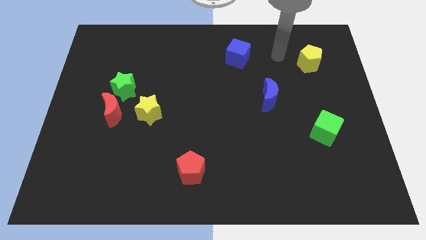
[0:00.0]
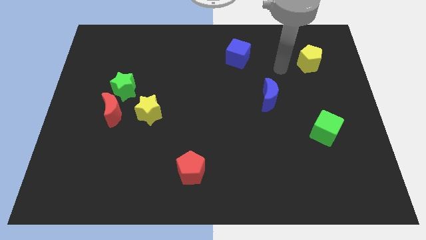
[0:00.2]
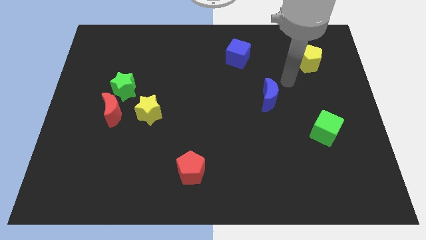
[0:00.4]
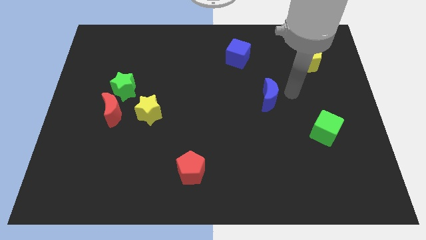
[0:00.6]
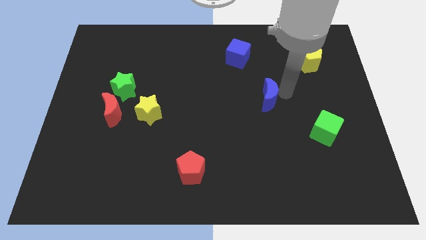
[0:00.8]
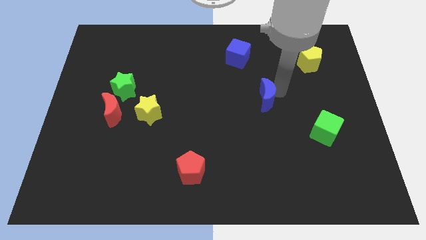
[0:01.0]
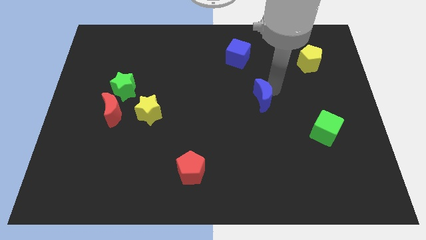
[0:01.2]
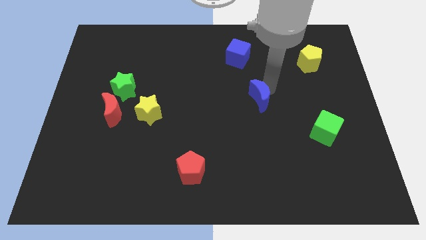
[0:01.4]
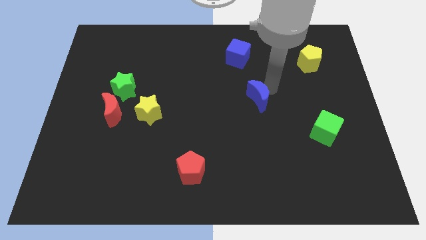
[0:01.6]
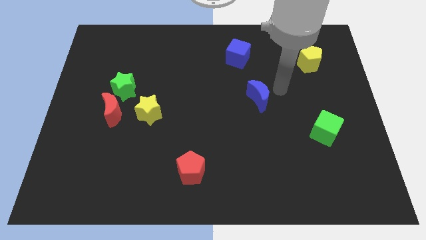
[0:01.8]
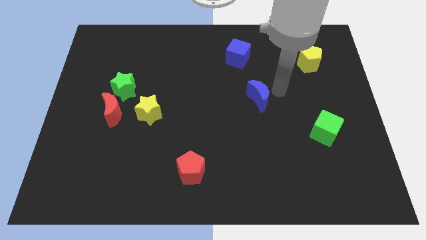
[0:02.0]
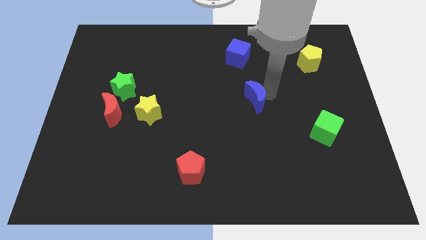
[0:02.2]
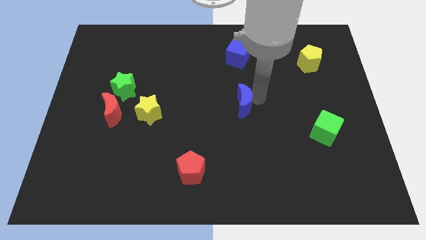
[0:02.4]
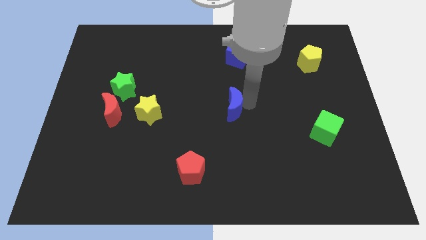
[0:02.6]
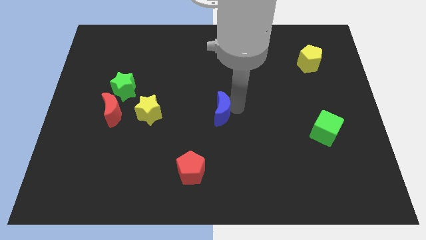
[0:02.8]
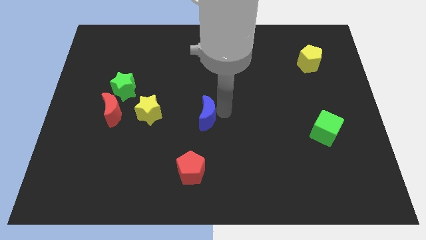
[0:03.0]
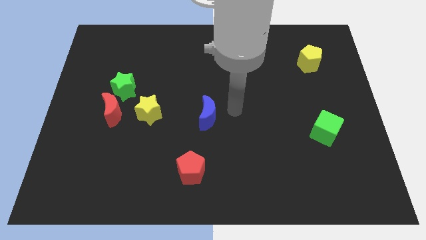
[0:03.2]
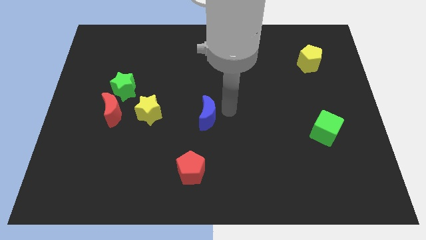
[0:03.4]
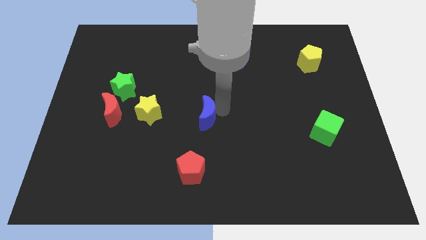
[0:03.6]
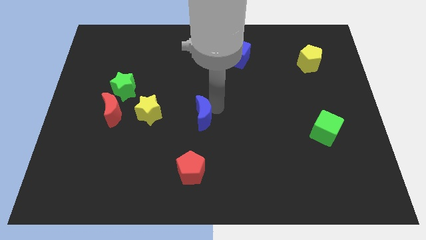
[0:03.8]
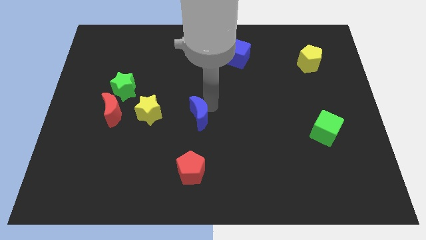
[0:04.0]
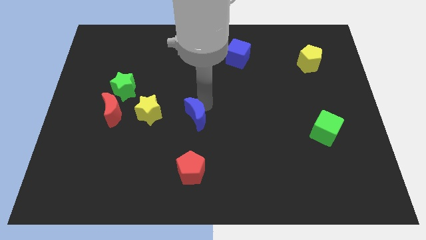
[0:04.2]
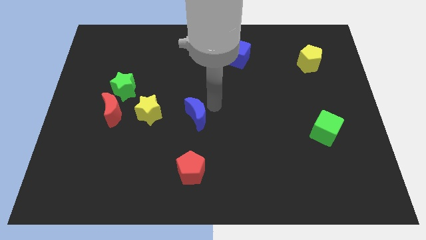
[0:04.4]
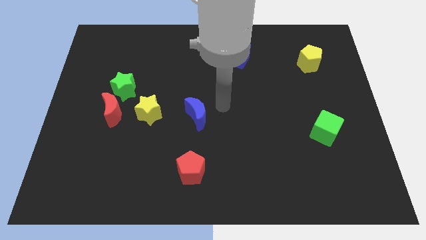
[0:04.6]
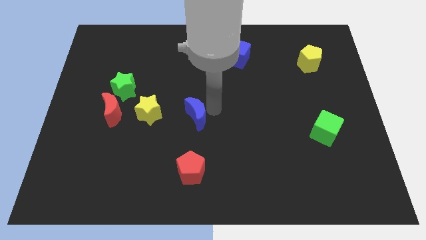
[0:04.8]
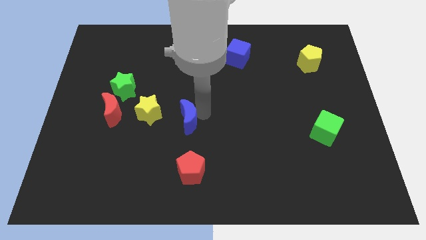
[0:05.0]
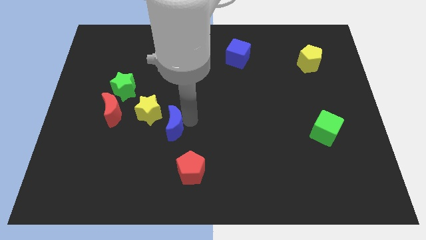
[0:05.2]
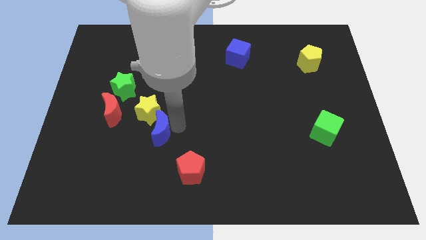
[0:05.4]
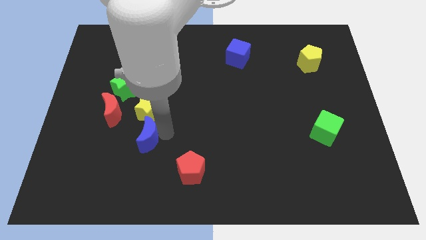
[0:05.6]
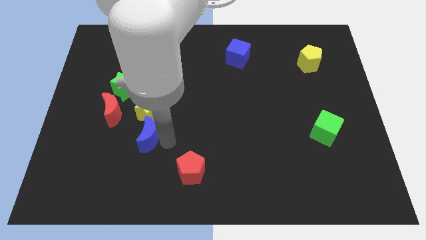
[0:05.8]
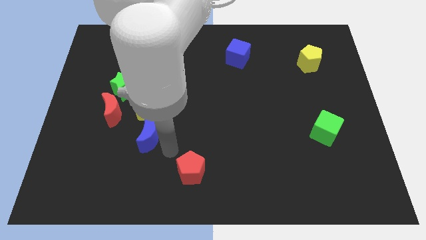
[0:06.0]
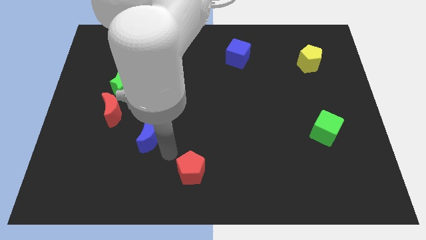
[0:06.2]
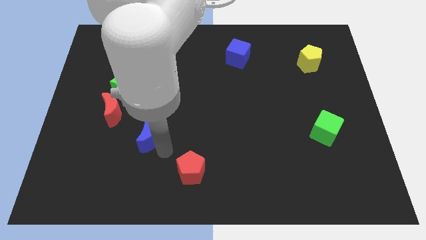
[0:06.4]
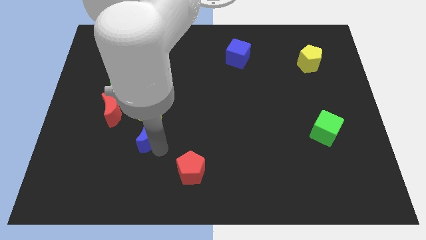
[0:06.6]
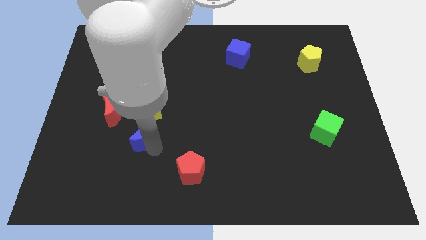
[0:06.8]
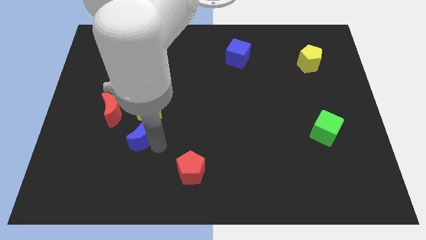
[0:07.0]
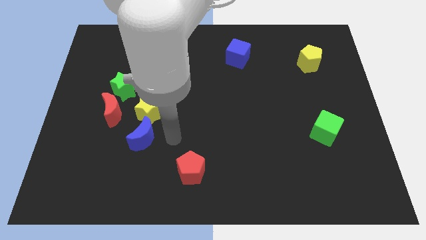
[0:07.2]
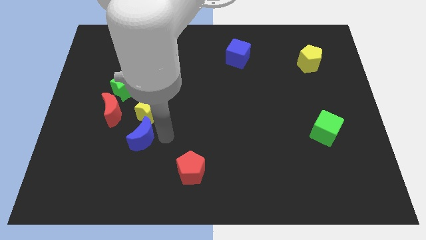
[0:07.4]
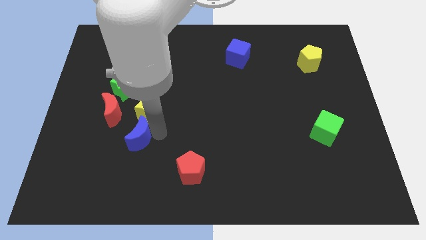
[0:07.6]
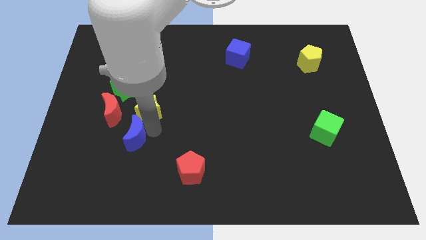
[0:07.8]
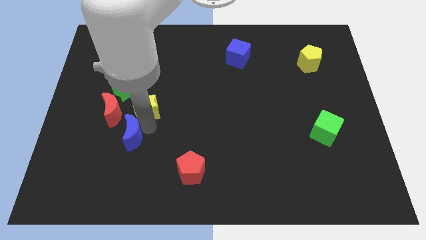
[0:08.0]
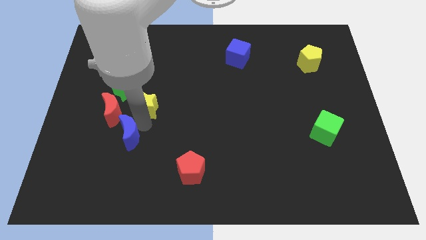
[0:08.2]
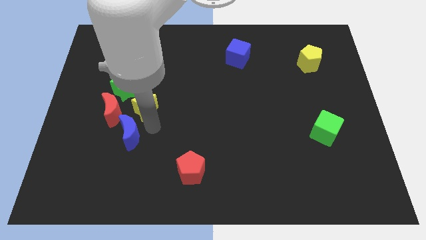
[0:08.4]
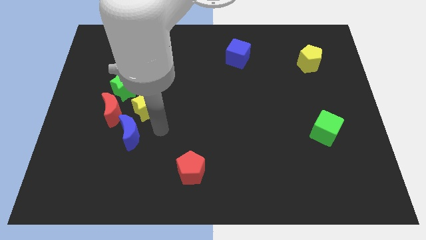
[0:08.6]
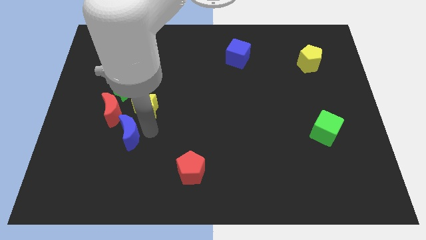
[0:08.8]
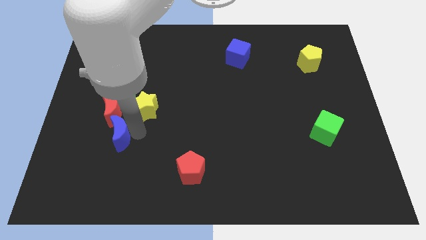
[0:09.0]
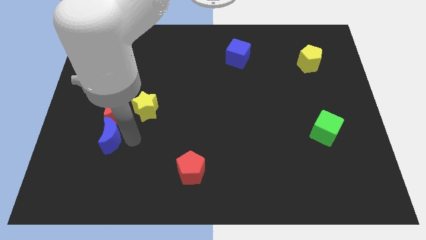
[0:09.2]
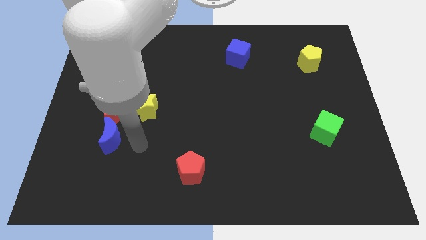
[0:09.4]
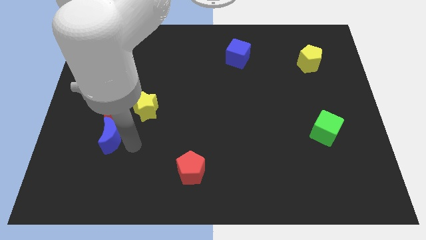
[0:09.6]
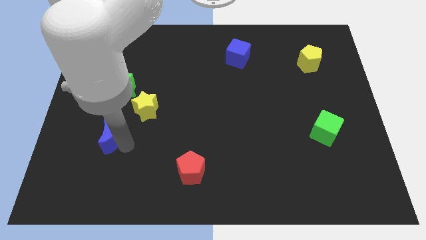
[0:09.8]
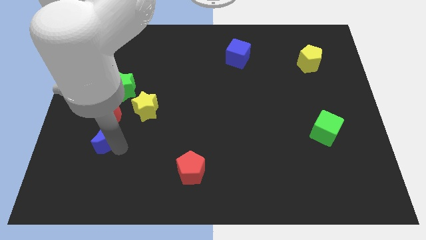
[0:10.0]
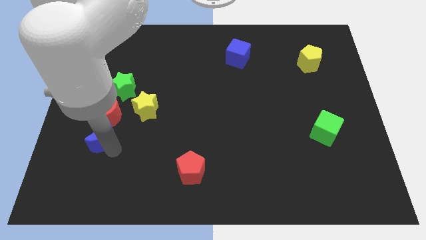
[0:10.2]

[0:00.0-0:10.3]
put the blue moon diagonally down and to the left of the red moon

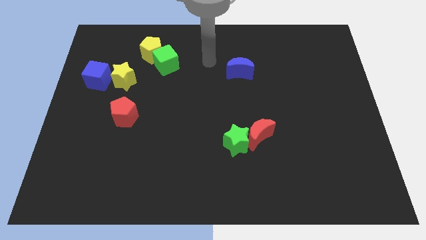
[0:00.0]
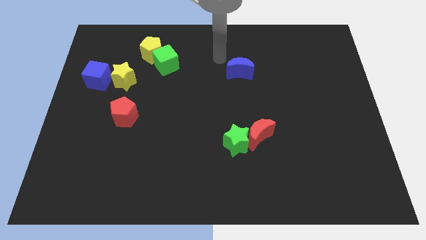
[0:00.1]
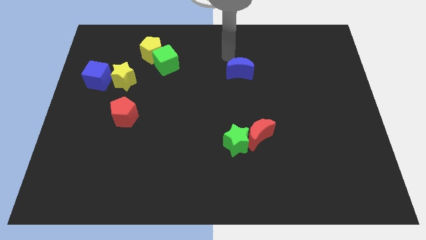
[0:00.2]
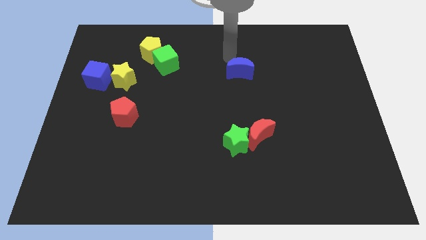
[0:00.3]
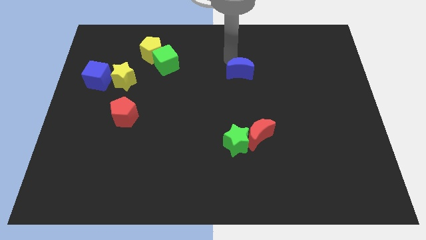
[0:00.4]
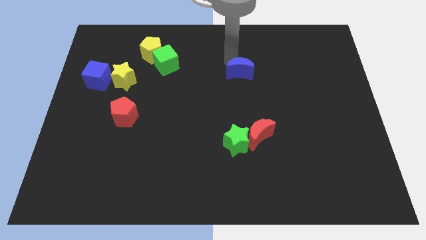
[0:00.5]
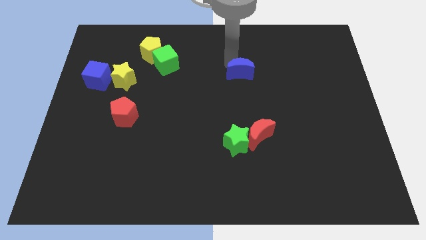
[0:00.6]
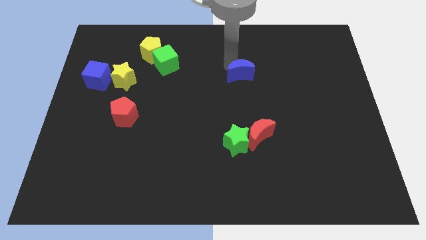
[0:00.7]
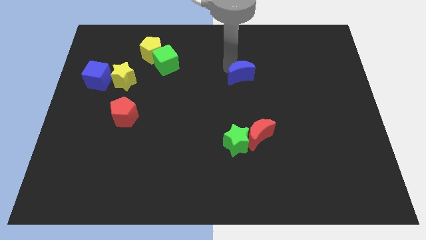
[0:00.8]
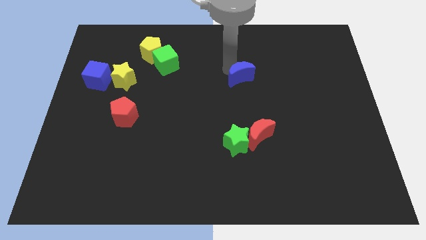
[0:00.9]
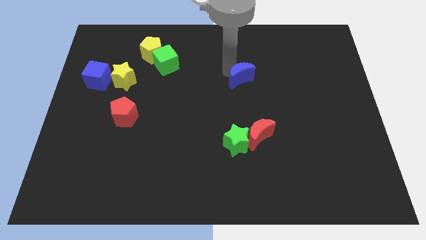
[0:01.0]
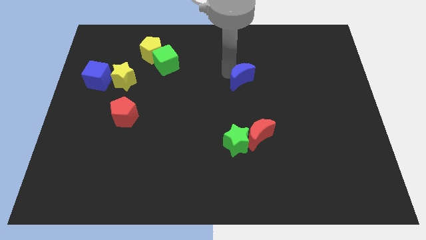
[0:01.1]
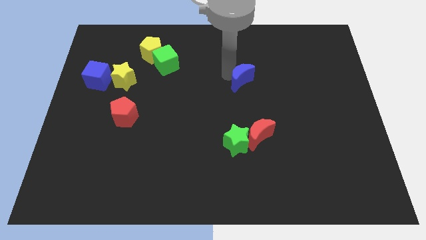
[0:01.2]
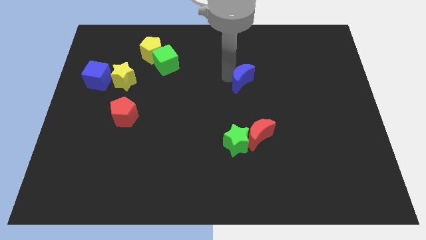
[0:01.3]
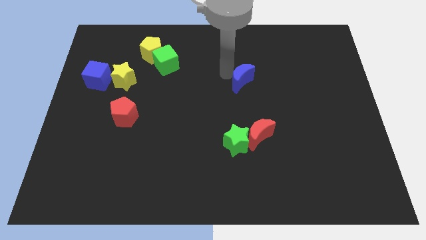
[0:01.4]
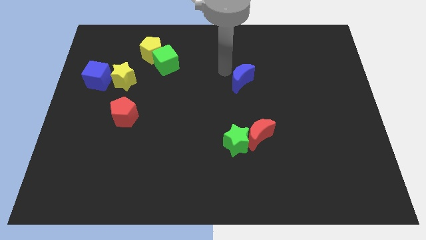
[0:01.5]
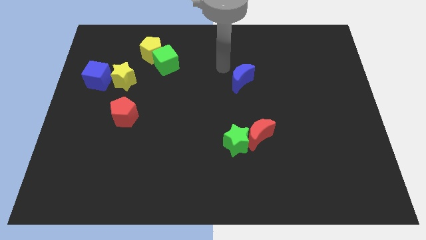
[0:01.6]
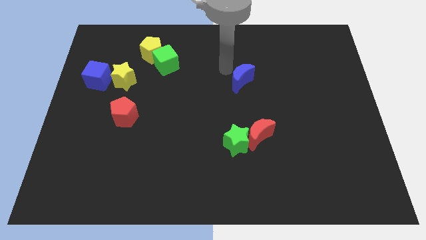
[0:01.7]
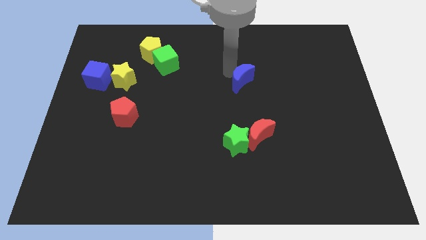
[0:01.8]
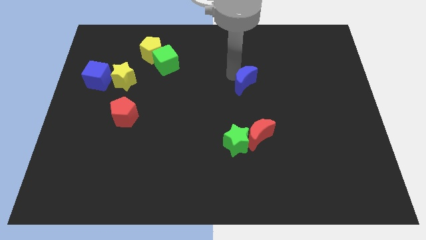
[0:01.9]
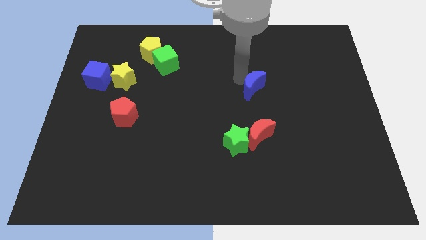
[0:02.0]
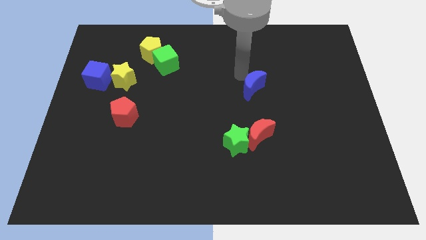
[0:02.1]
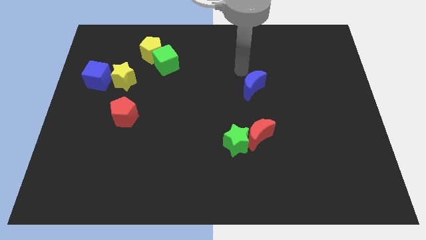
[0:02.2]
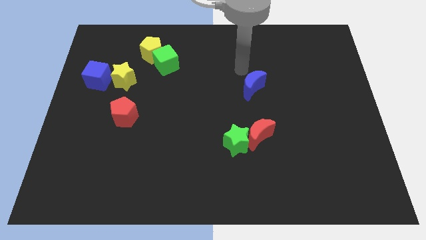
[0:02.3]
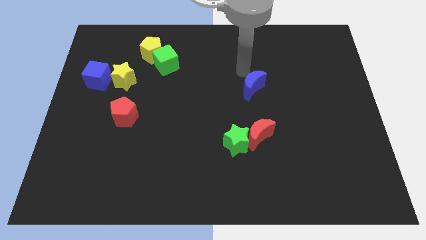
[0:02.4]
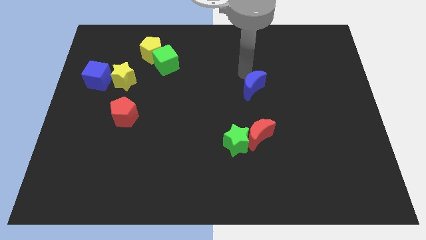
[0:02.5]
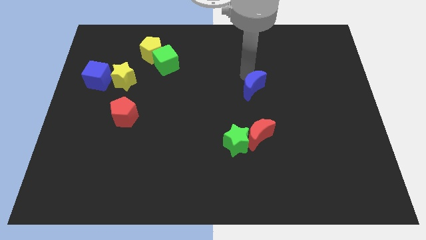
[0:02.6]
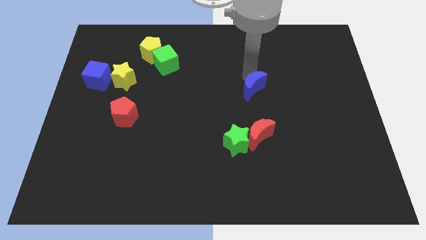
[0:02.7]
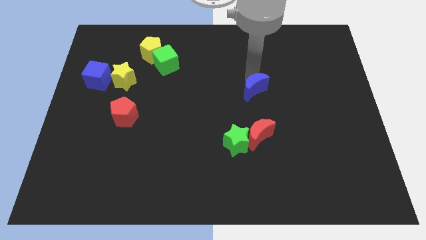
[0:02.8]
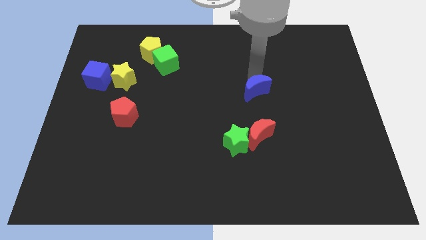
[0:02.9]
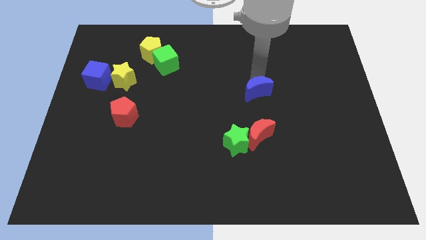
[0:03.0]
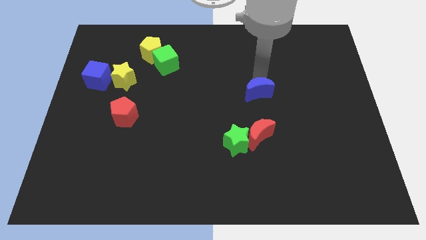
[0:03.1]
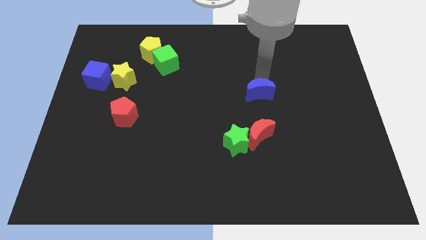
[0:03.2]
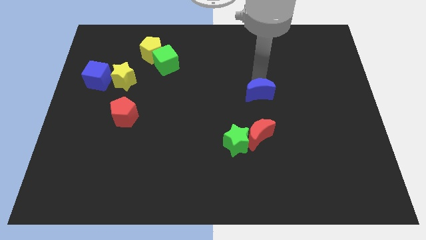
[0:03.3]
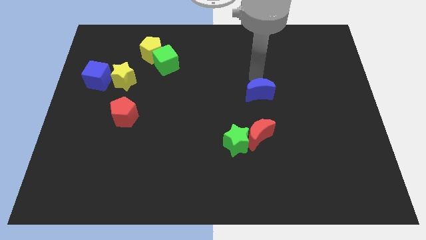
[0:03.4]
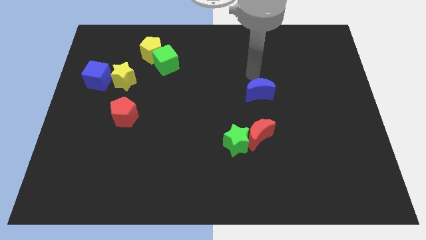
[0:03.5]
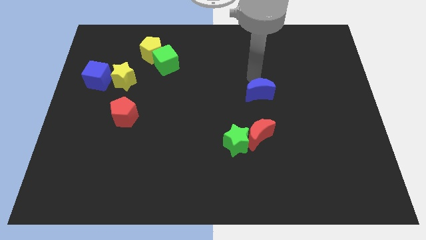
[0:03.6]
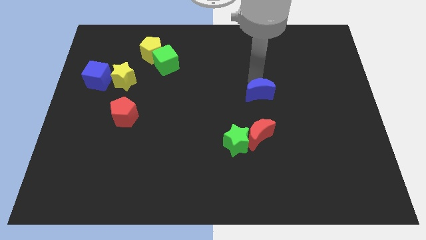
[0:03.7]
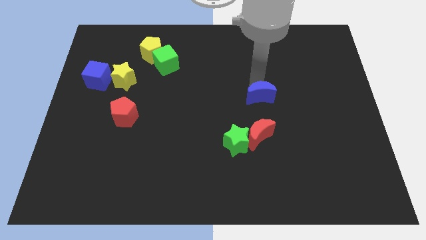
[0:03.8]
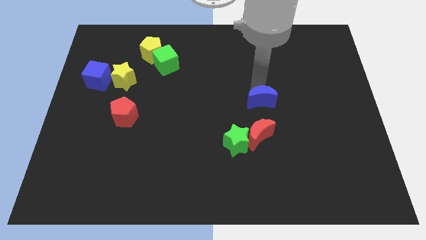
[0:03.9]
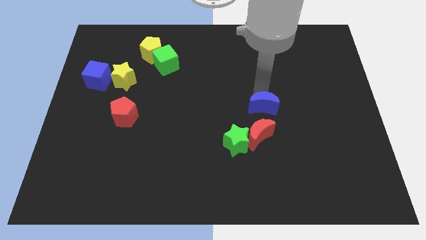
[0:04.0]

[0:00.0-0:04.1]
slide the blue moon to the top right side of the green star
